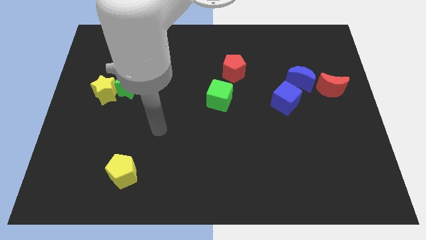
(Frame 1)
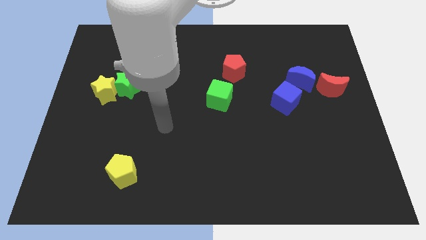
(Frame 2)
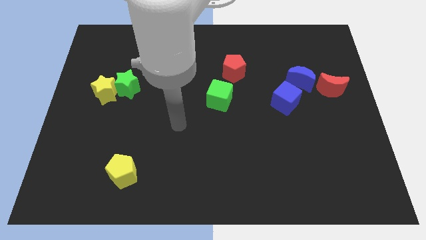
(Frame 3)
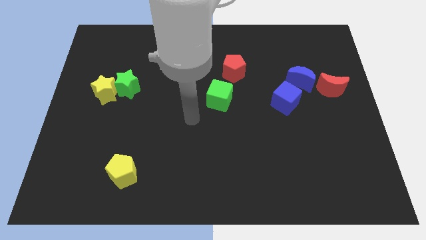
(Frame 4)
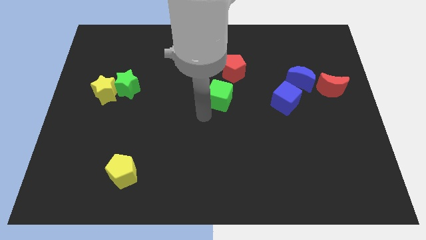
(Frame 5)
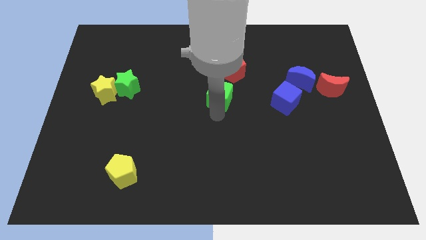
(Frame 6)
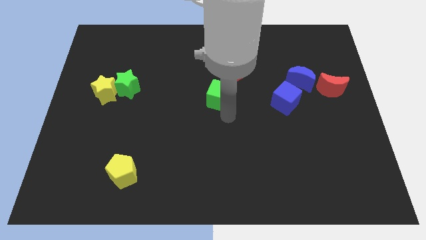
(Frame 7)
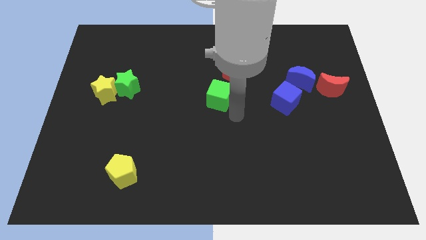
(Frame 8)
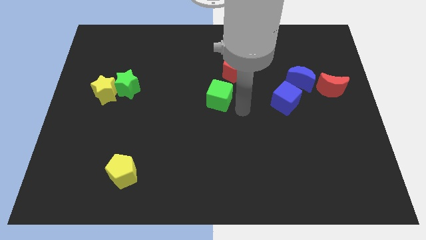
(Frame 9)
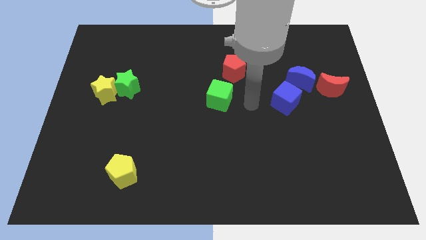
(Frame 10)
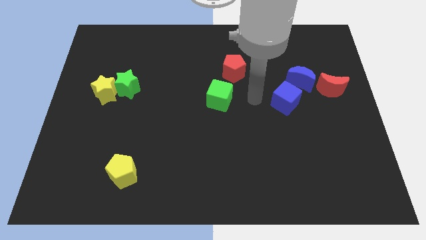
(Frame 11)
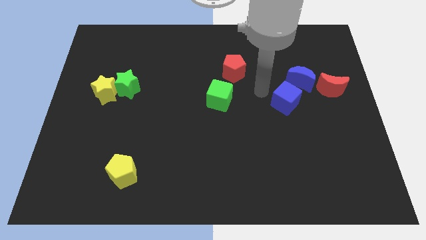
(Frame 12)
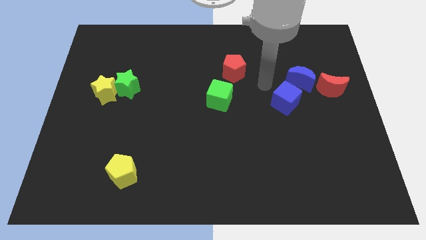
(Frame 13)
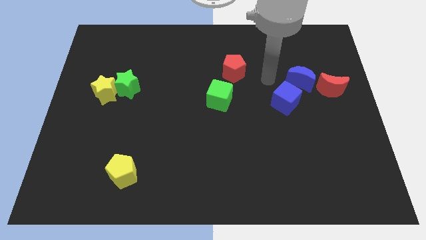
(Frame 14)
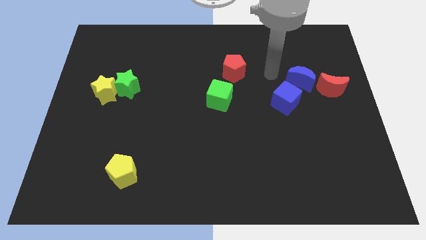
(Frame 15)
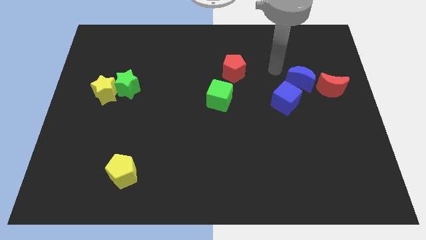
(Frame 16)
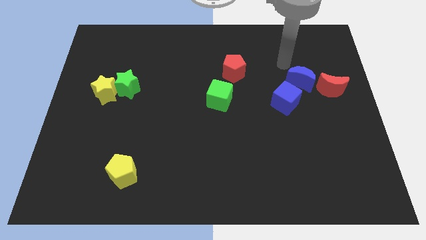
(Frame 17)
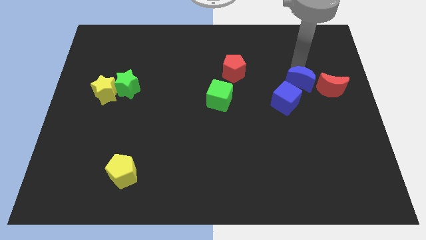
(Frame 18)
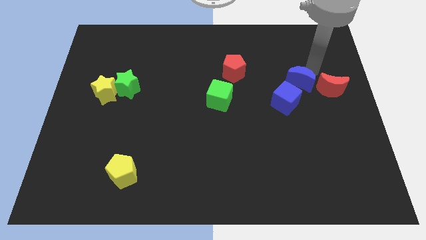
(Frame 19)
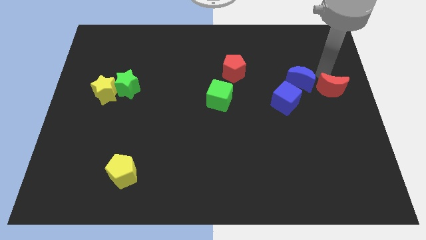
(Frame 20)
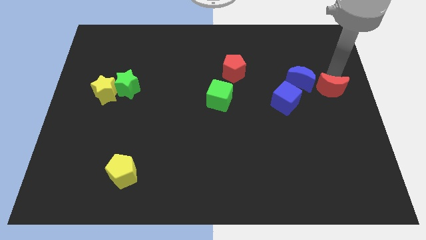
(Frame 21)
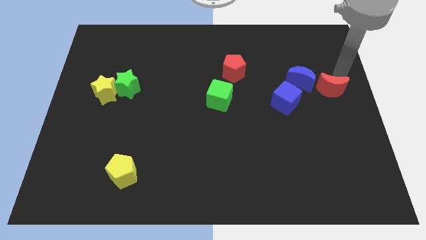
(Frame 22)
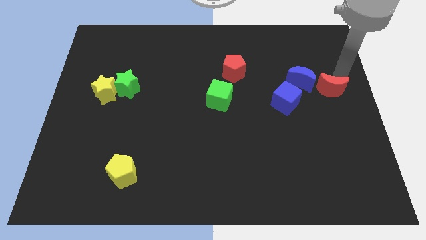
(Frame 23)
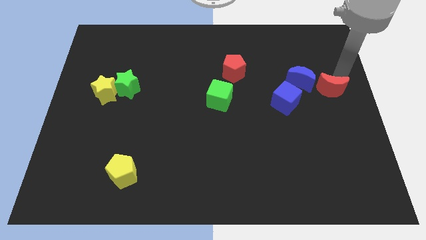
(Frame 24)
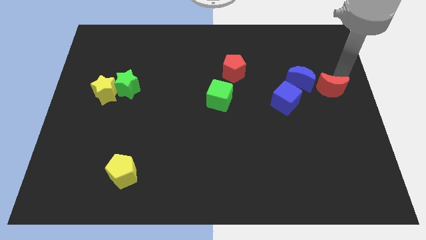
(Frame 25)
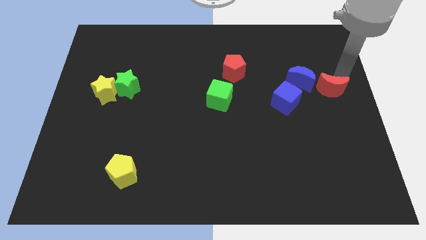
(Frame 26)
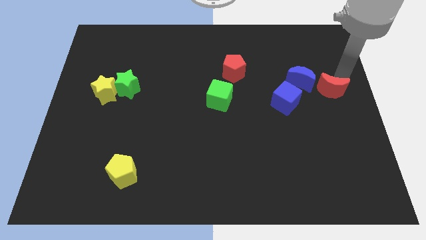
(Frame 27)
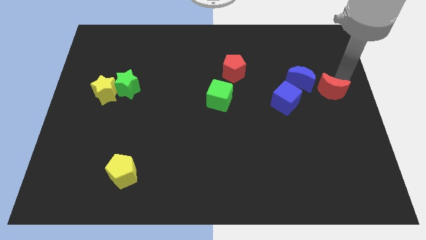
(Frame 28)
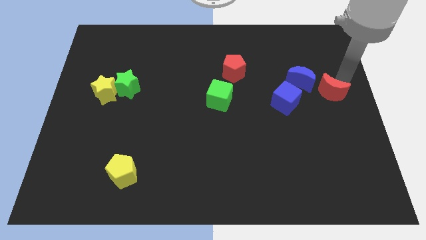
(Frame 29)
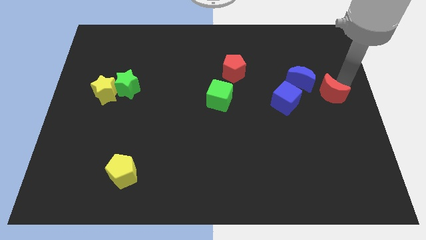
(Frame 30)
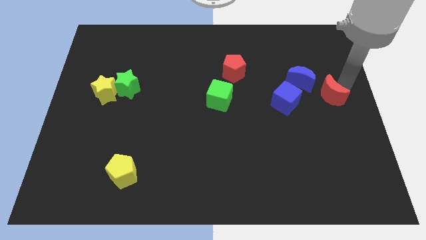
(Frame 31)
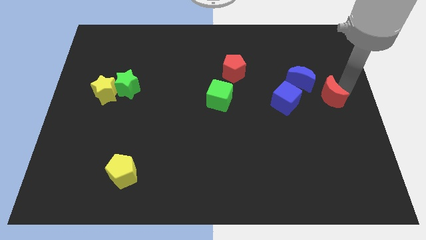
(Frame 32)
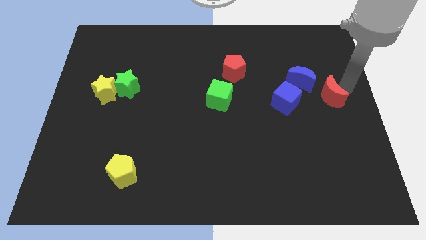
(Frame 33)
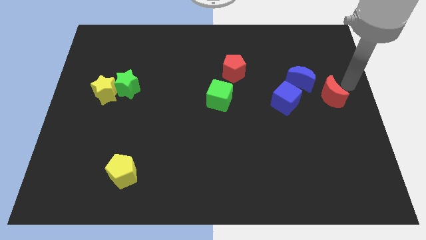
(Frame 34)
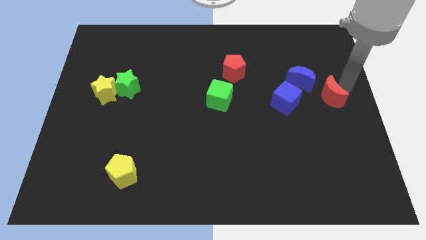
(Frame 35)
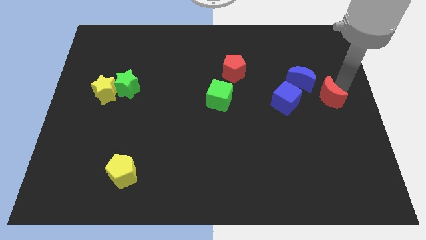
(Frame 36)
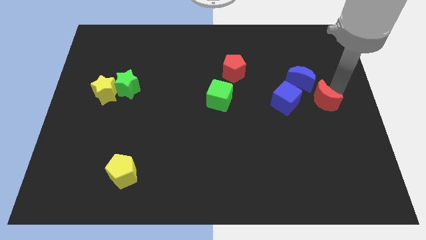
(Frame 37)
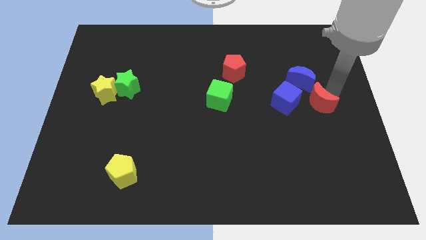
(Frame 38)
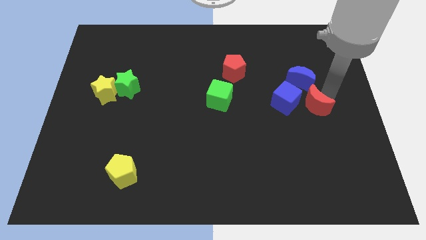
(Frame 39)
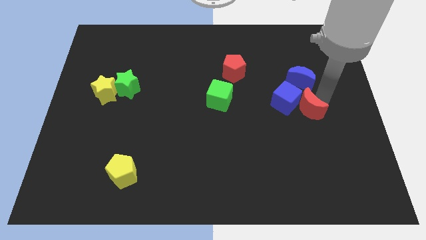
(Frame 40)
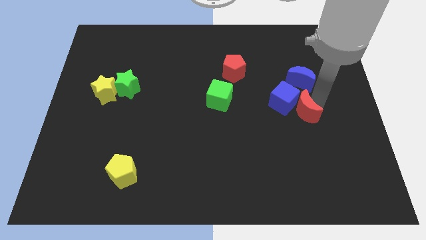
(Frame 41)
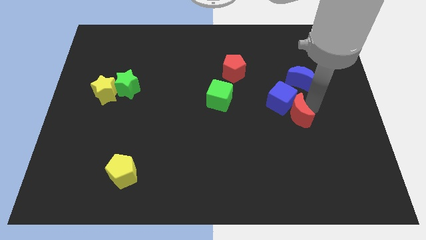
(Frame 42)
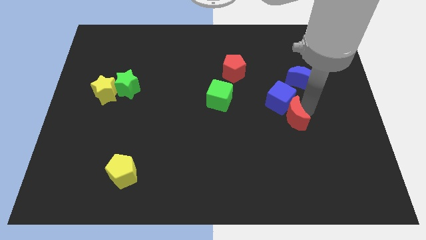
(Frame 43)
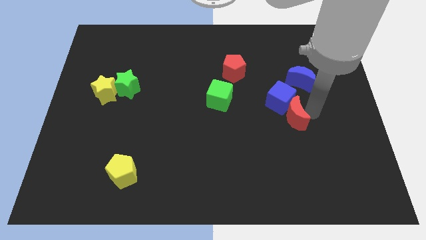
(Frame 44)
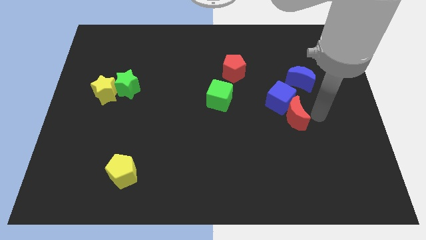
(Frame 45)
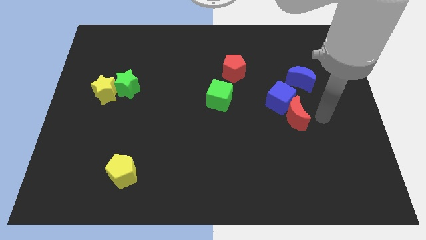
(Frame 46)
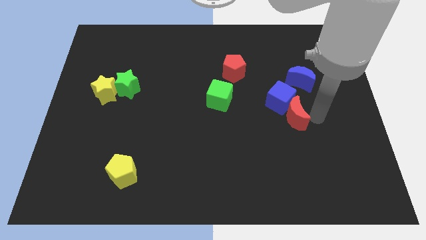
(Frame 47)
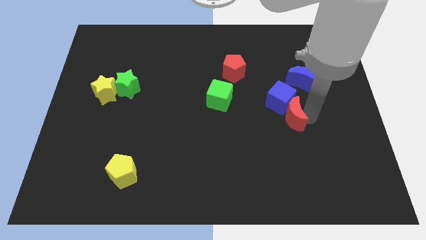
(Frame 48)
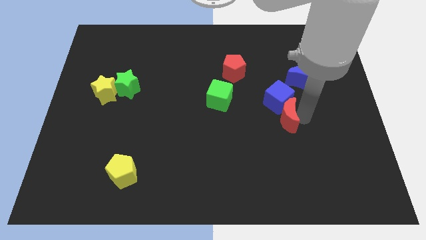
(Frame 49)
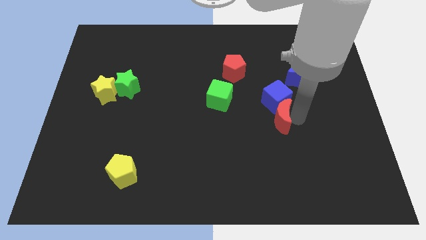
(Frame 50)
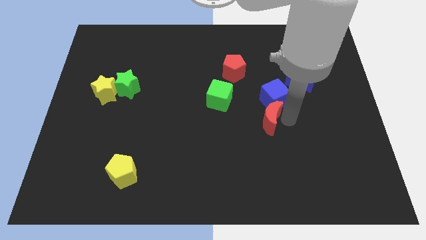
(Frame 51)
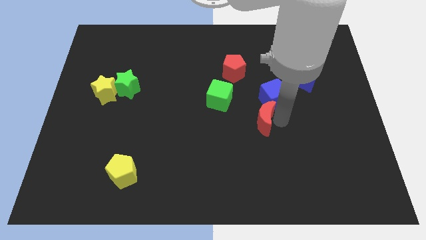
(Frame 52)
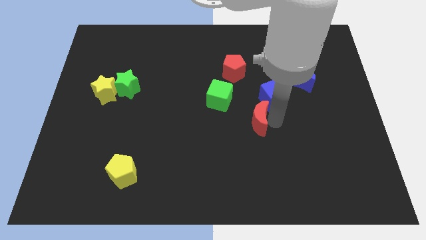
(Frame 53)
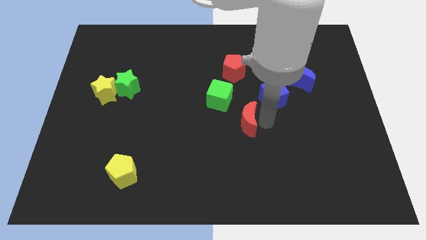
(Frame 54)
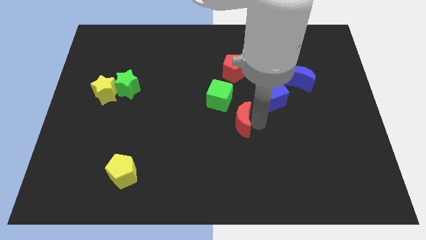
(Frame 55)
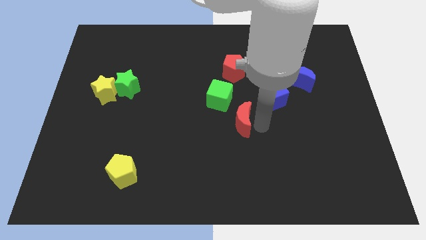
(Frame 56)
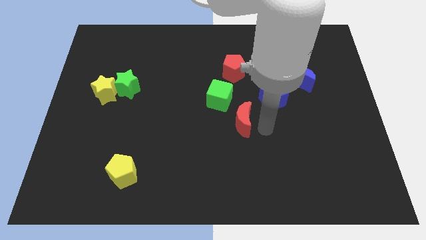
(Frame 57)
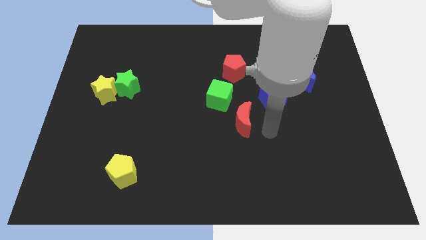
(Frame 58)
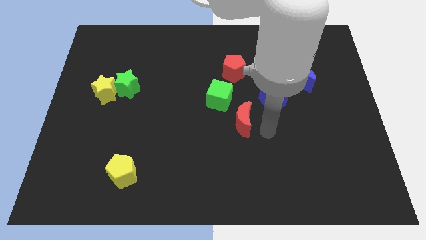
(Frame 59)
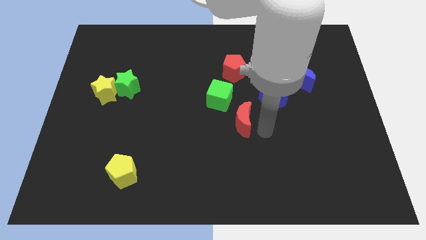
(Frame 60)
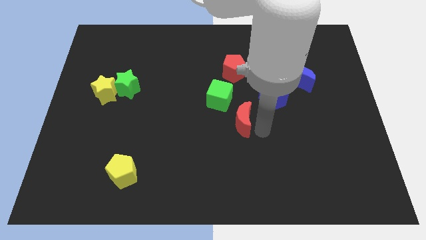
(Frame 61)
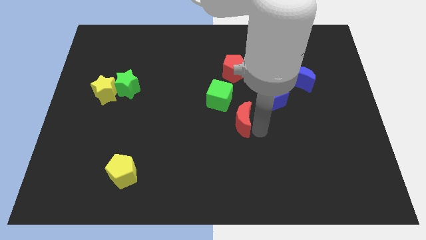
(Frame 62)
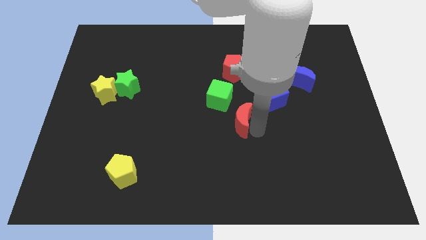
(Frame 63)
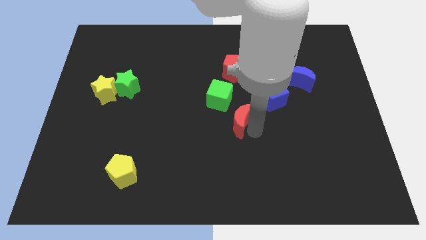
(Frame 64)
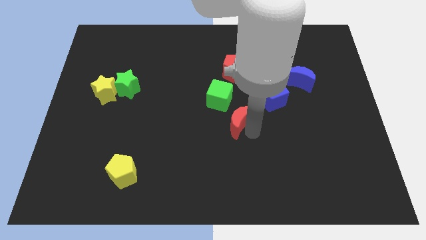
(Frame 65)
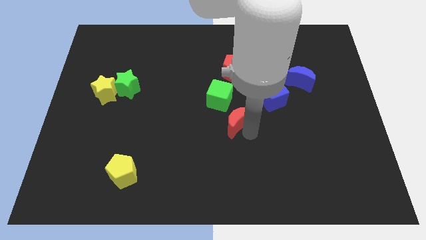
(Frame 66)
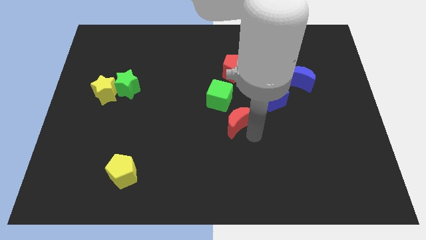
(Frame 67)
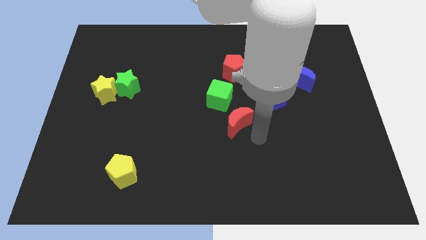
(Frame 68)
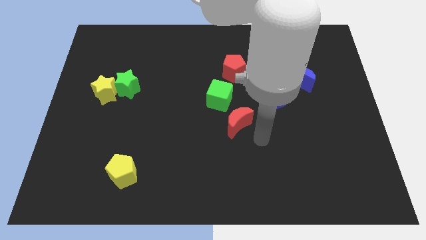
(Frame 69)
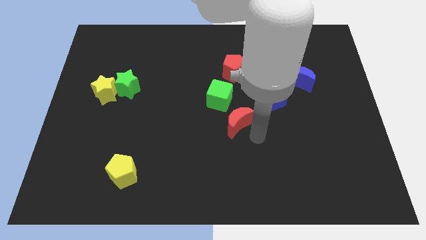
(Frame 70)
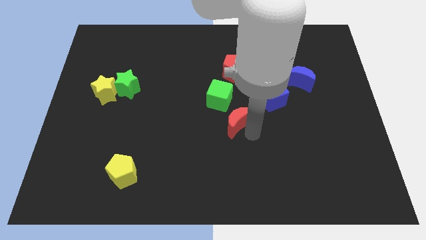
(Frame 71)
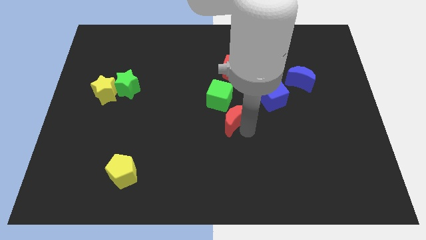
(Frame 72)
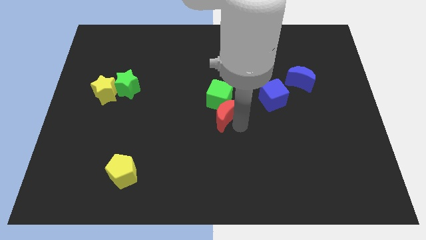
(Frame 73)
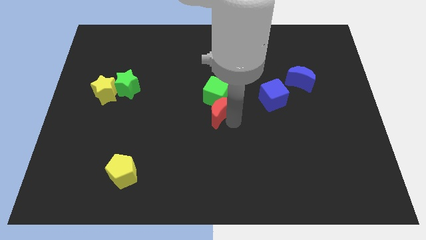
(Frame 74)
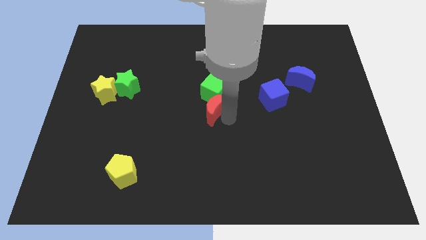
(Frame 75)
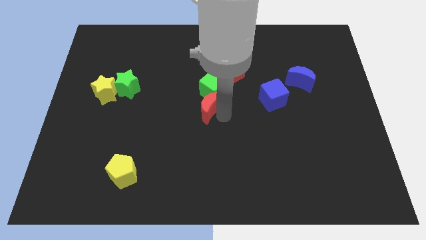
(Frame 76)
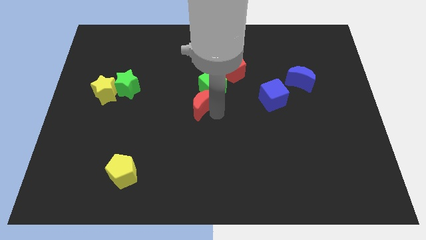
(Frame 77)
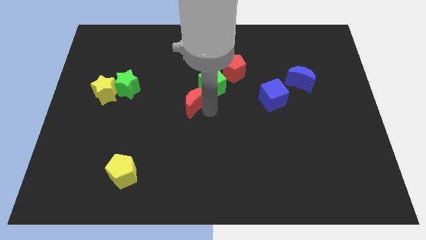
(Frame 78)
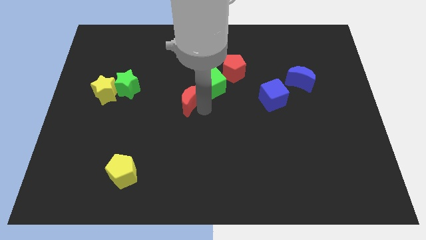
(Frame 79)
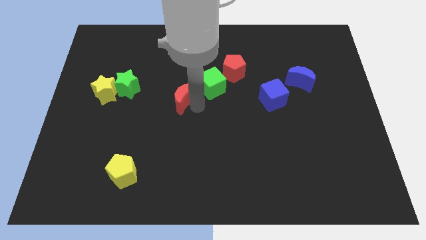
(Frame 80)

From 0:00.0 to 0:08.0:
push the red moon just right of the green star
